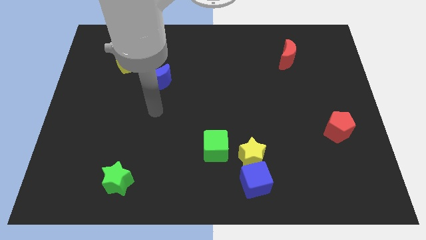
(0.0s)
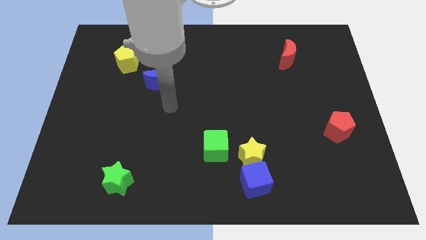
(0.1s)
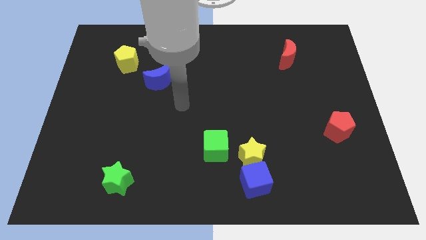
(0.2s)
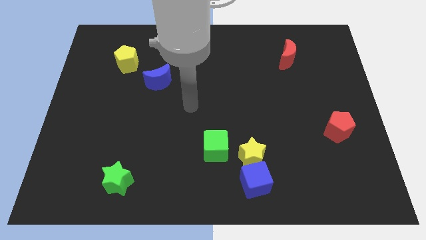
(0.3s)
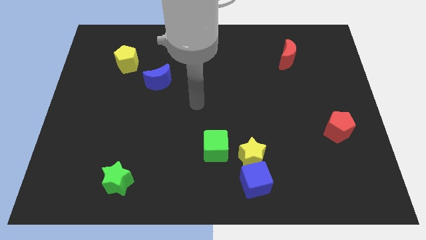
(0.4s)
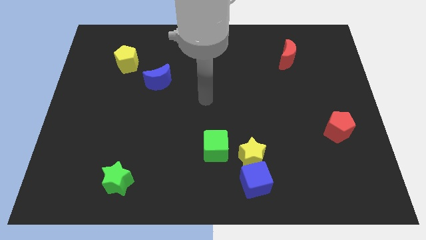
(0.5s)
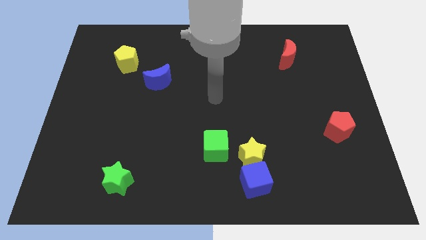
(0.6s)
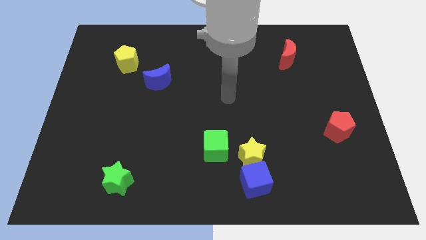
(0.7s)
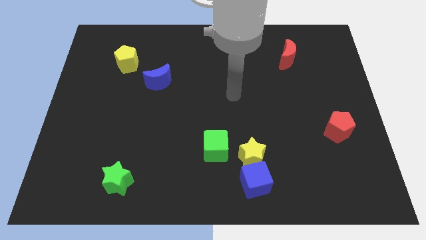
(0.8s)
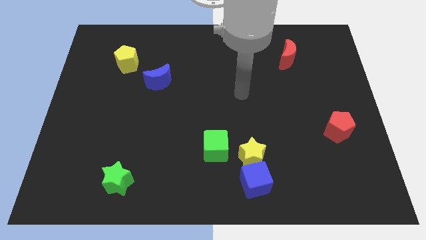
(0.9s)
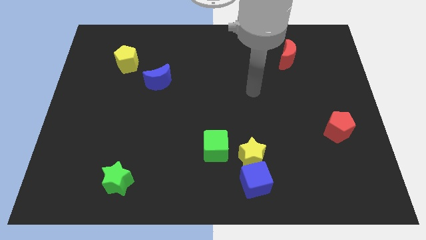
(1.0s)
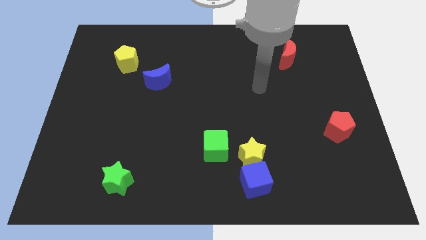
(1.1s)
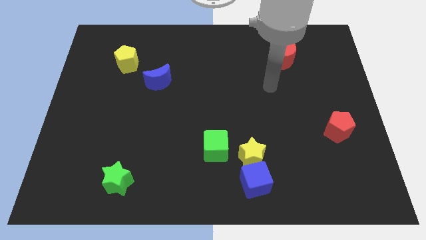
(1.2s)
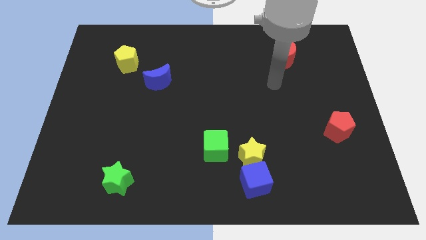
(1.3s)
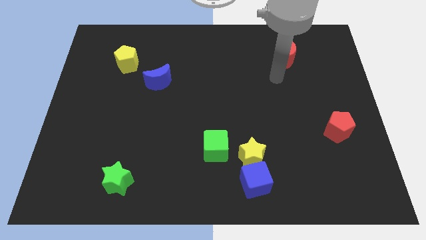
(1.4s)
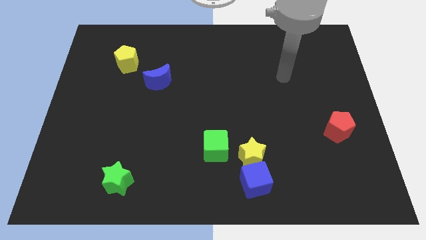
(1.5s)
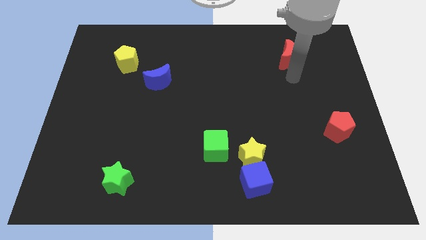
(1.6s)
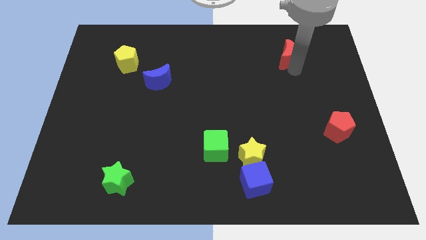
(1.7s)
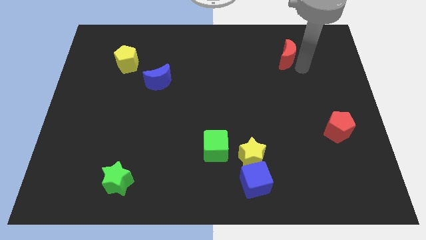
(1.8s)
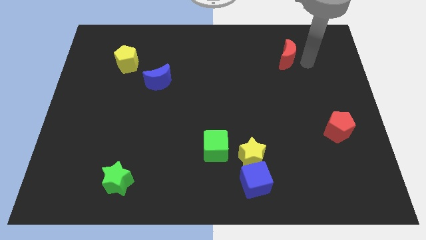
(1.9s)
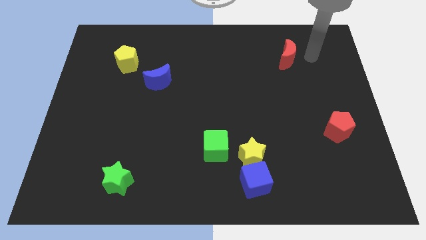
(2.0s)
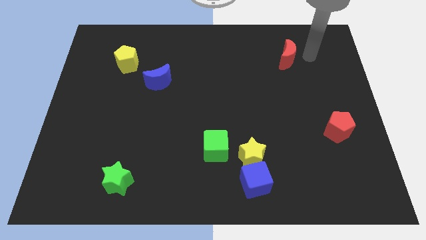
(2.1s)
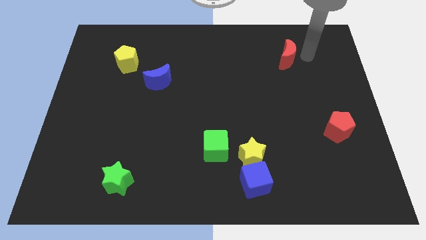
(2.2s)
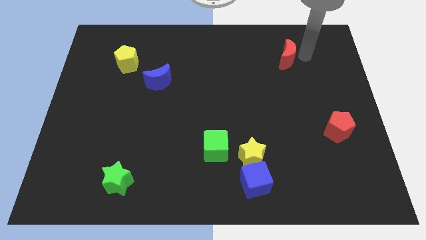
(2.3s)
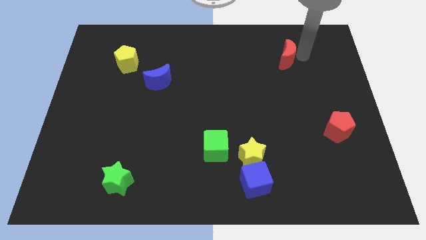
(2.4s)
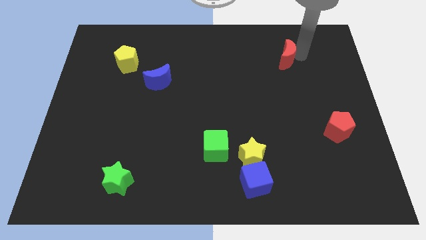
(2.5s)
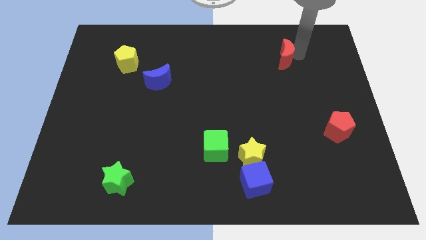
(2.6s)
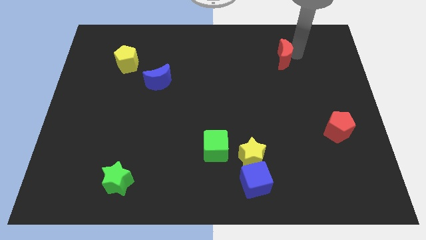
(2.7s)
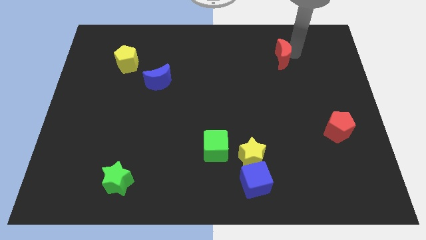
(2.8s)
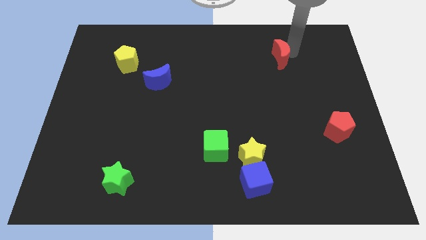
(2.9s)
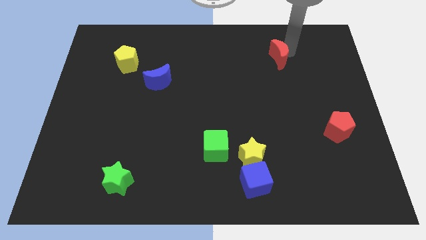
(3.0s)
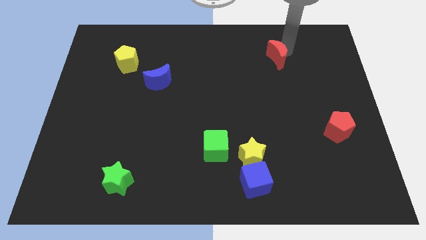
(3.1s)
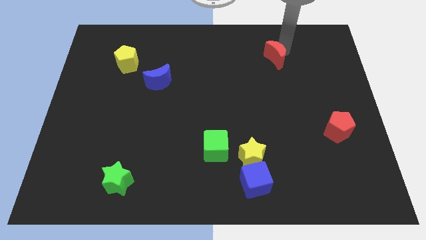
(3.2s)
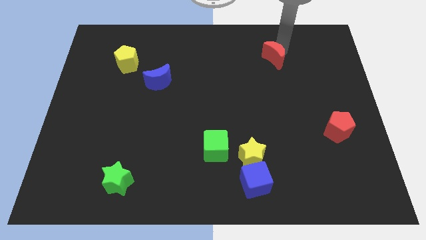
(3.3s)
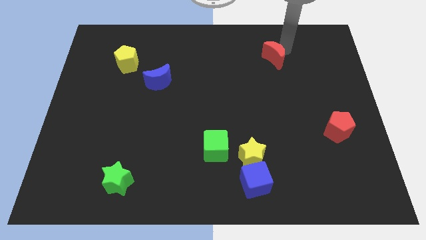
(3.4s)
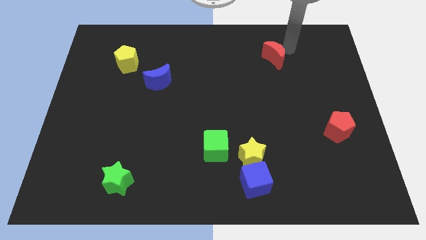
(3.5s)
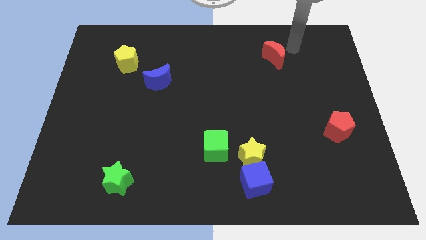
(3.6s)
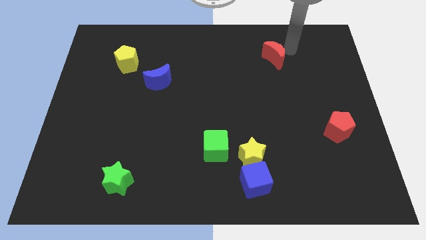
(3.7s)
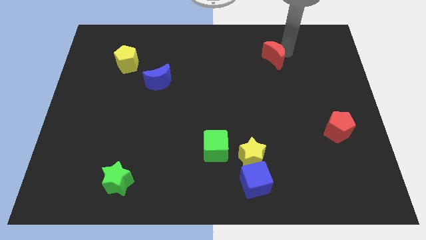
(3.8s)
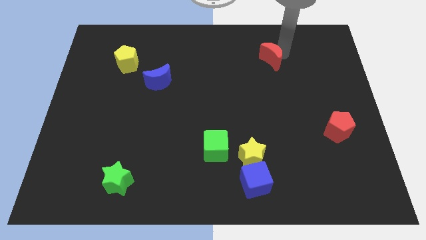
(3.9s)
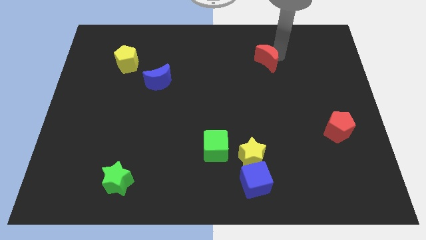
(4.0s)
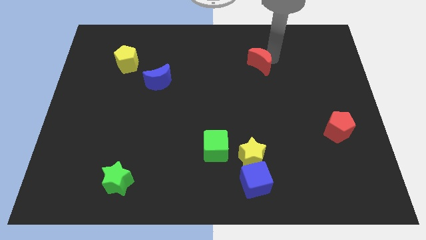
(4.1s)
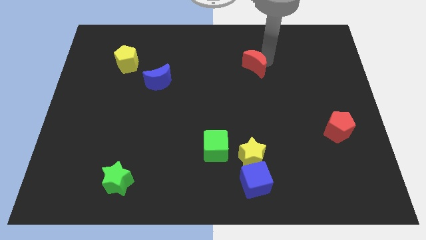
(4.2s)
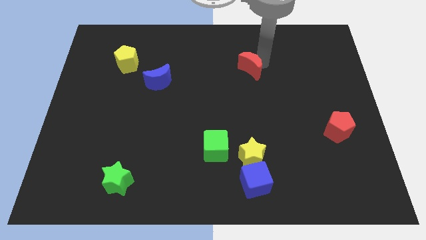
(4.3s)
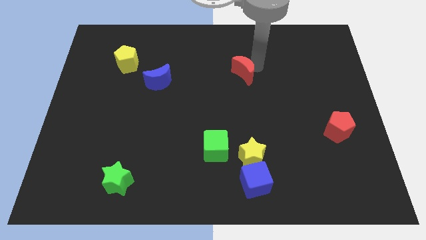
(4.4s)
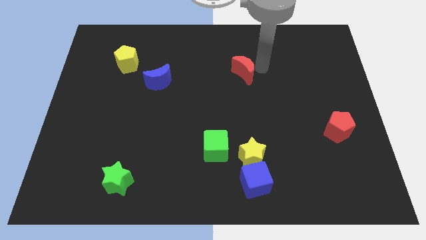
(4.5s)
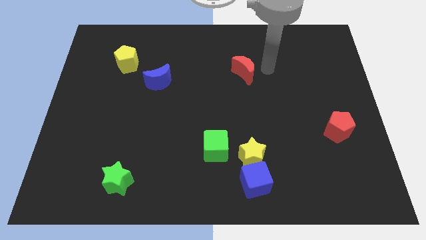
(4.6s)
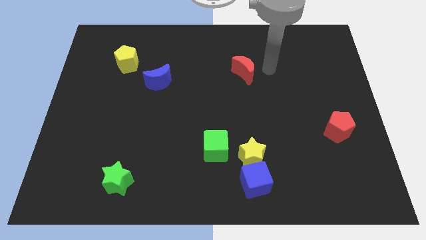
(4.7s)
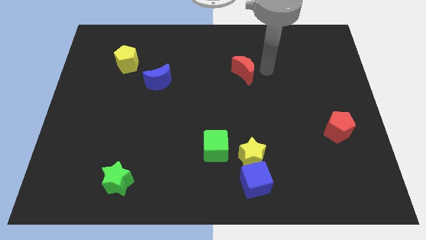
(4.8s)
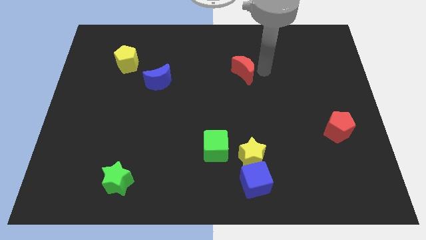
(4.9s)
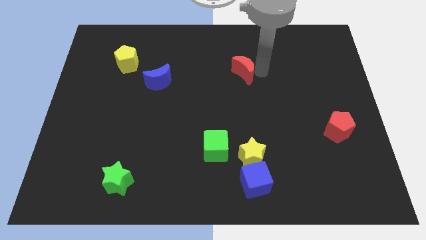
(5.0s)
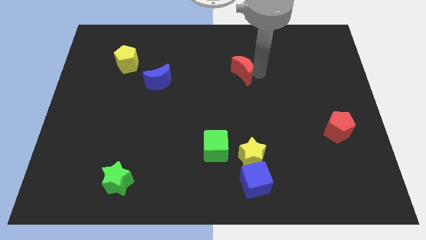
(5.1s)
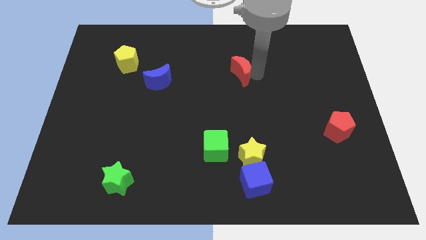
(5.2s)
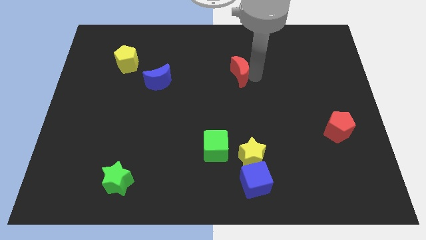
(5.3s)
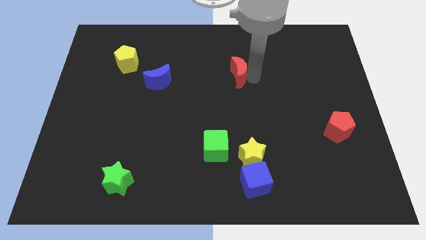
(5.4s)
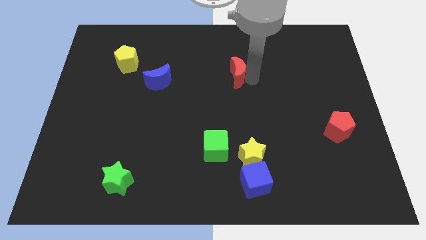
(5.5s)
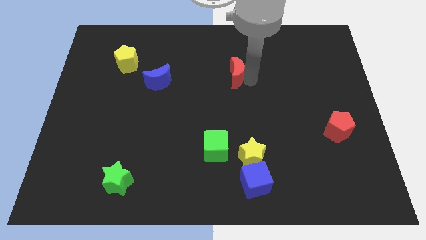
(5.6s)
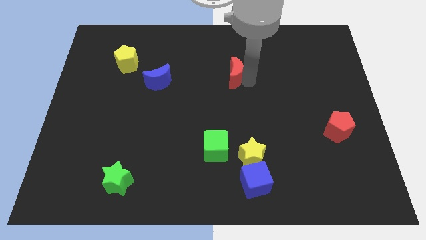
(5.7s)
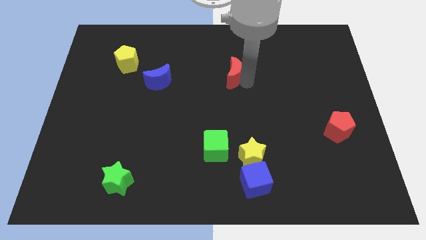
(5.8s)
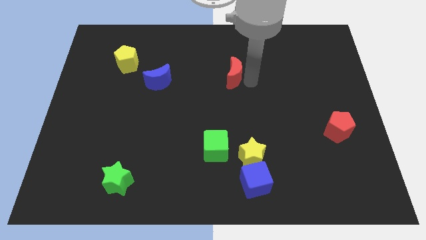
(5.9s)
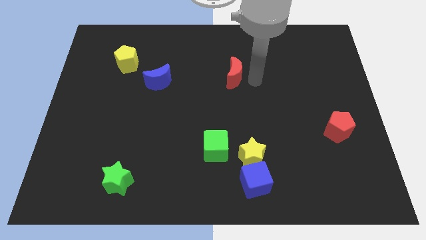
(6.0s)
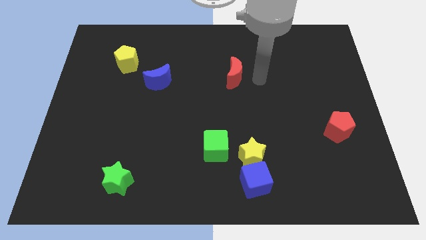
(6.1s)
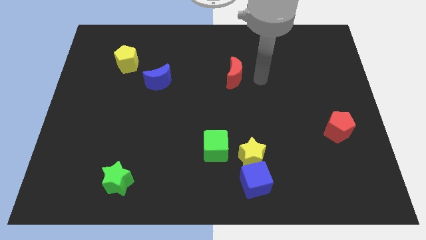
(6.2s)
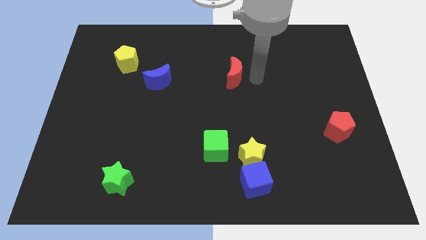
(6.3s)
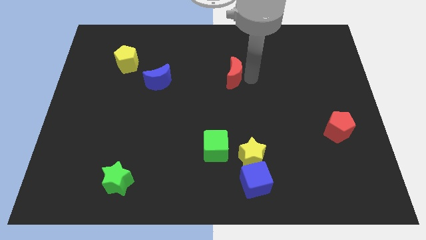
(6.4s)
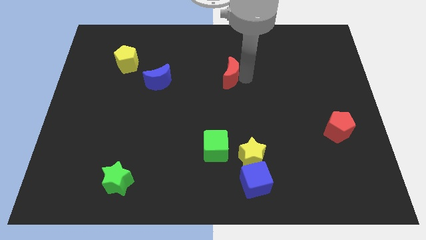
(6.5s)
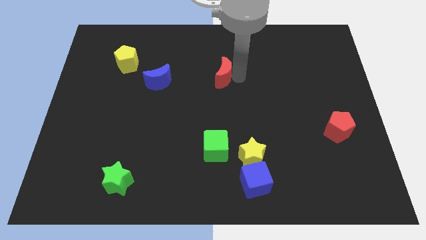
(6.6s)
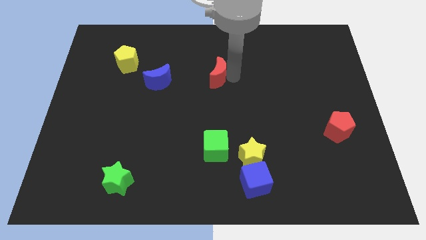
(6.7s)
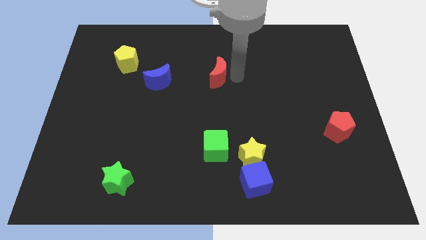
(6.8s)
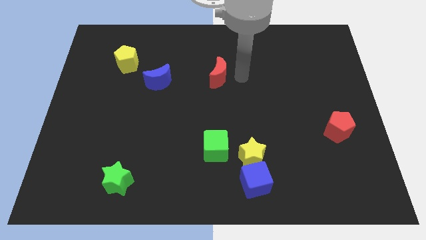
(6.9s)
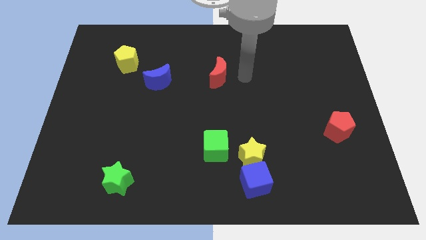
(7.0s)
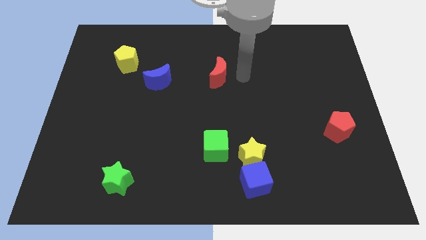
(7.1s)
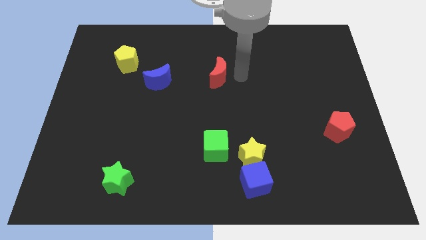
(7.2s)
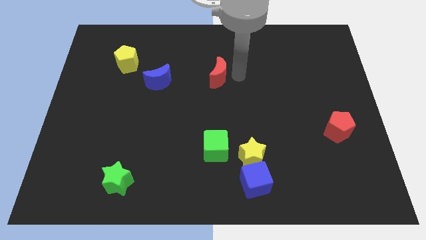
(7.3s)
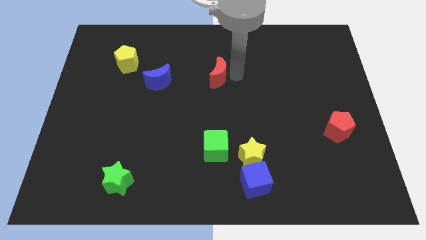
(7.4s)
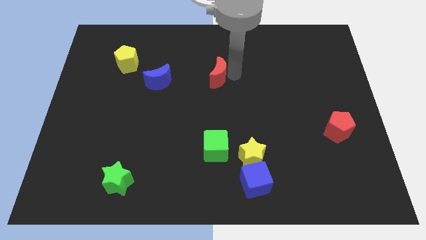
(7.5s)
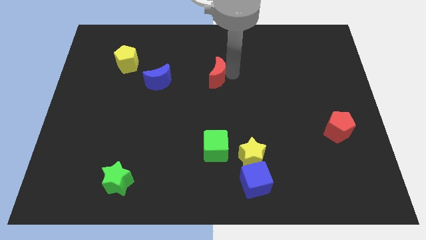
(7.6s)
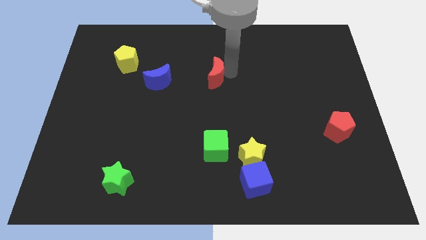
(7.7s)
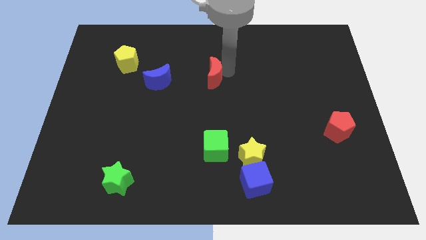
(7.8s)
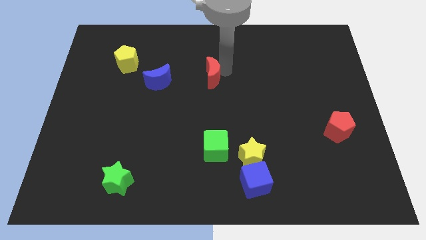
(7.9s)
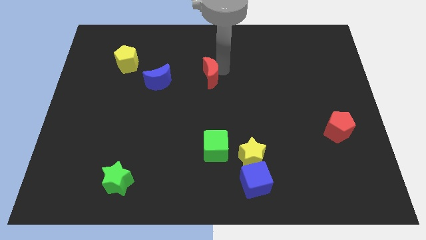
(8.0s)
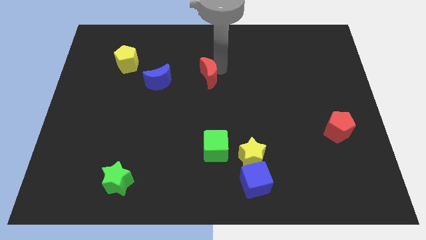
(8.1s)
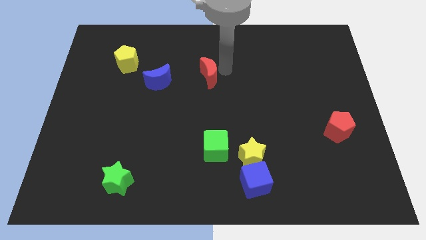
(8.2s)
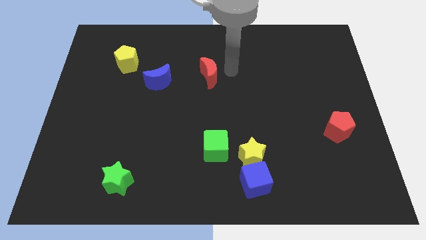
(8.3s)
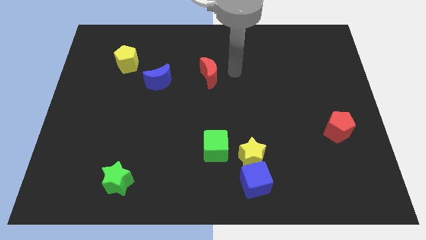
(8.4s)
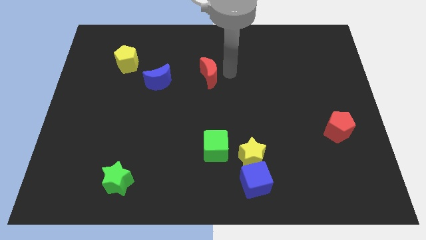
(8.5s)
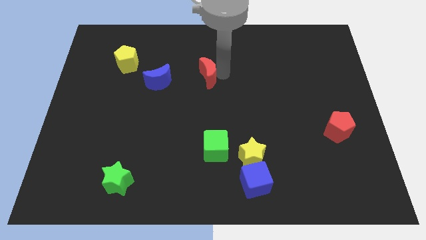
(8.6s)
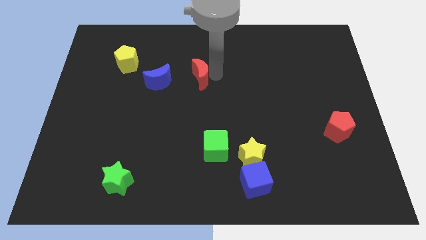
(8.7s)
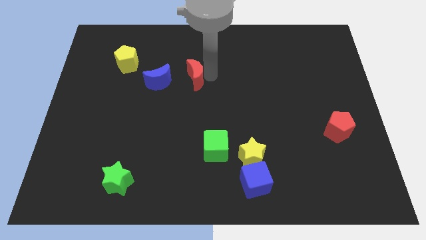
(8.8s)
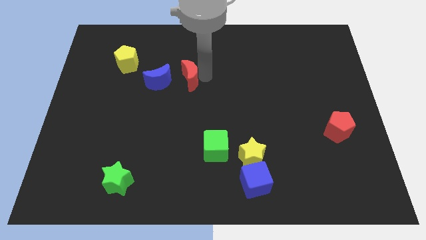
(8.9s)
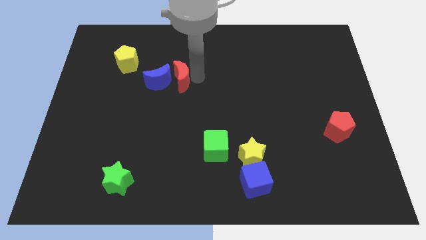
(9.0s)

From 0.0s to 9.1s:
move the red moon close to the blue moon
